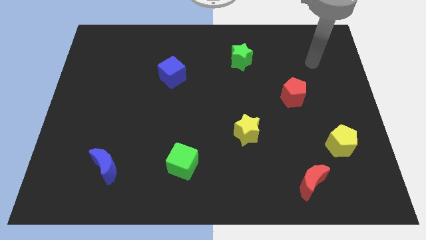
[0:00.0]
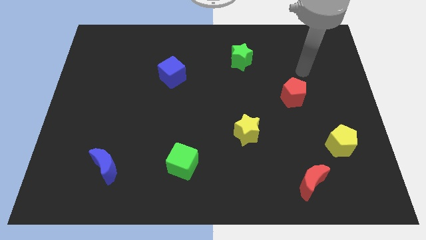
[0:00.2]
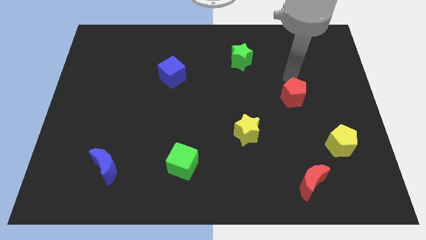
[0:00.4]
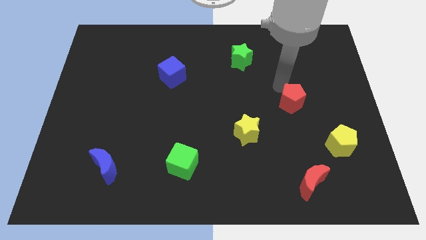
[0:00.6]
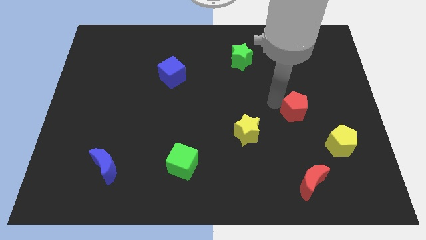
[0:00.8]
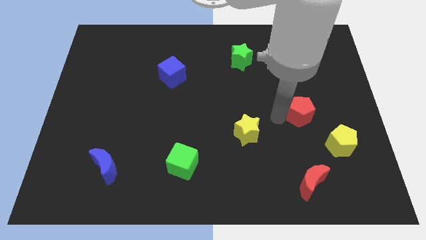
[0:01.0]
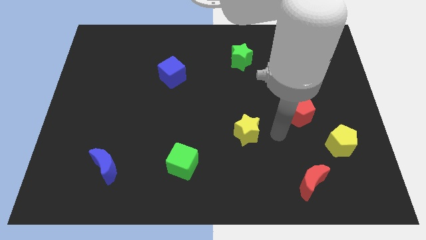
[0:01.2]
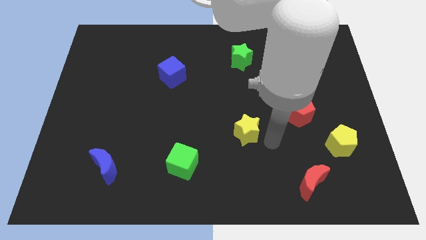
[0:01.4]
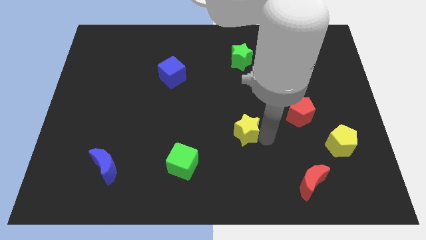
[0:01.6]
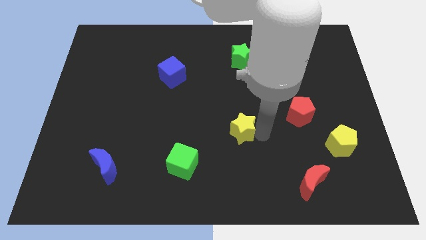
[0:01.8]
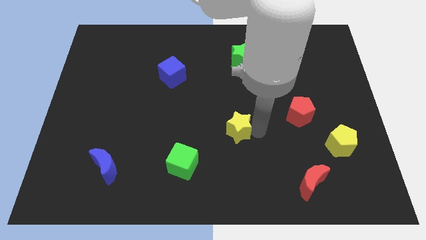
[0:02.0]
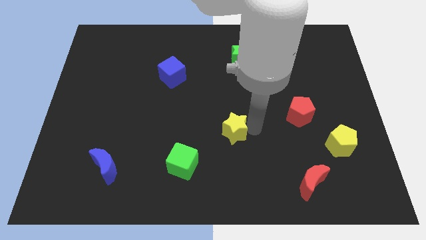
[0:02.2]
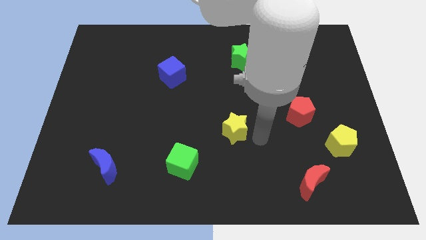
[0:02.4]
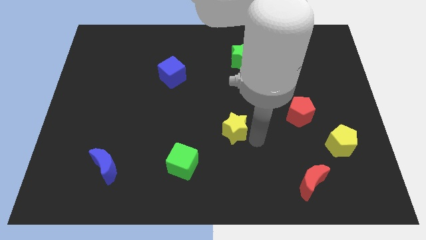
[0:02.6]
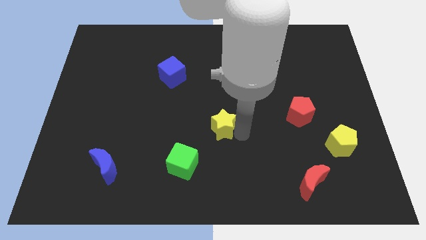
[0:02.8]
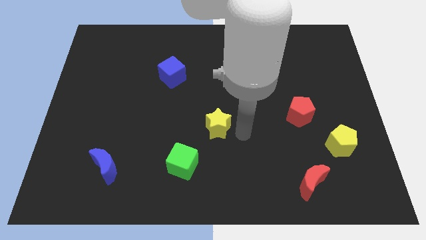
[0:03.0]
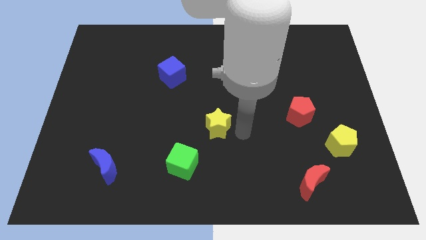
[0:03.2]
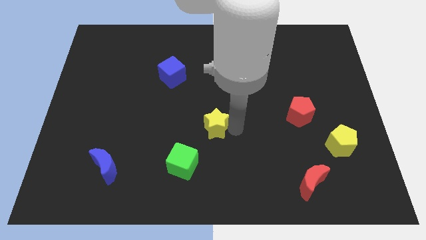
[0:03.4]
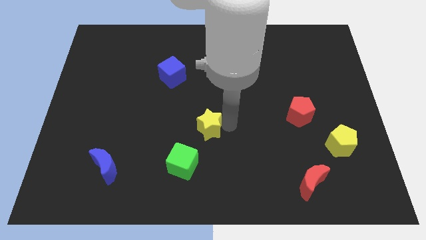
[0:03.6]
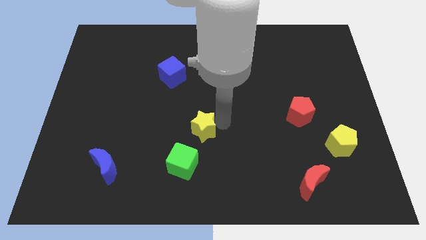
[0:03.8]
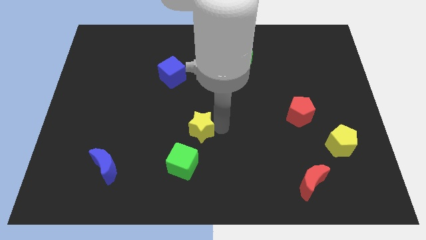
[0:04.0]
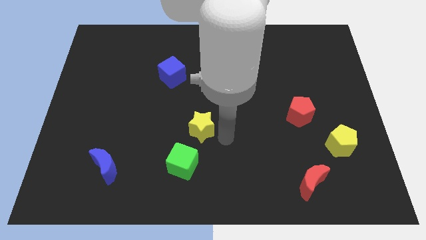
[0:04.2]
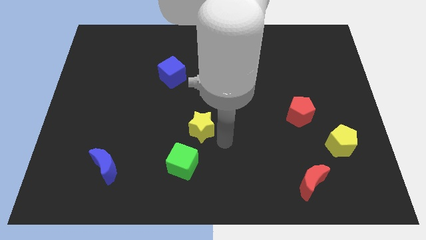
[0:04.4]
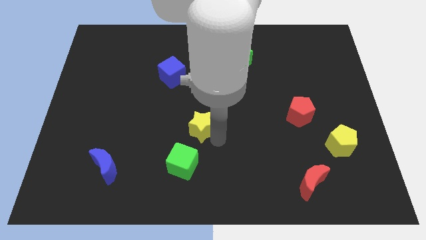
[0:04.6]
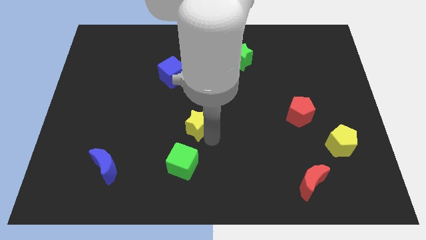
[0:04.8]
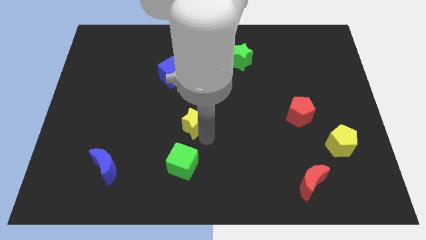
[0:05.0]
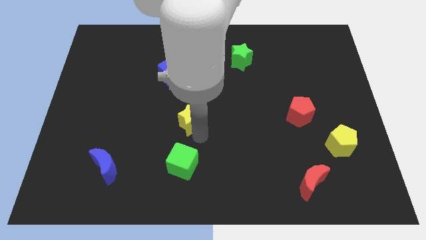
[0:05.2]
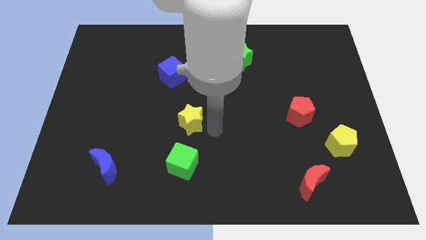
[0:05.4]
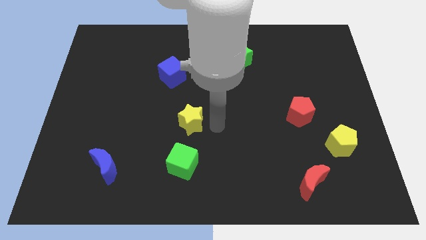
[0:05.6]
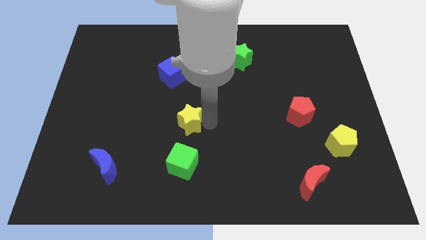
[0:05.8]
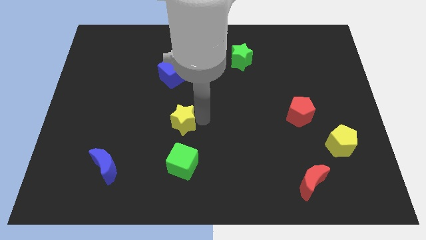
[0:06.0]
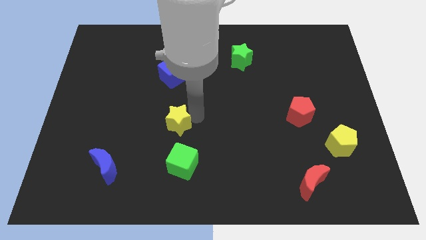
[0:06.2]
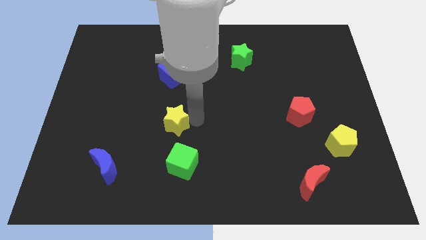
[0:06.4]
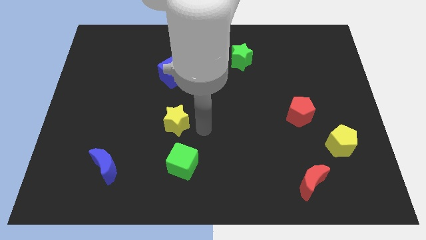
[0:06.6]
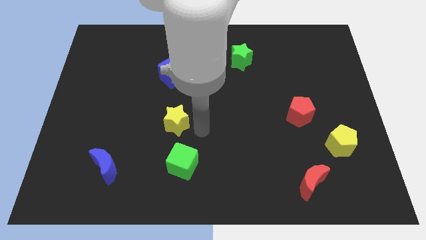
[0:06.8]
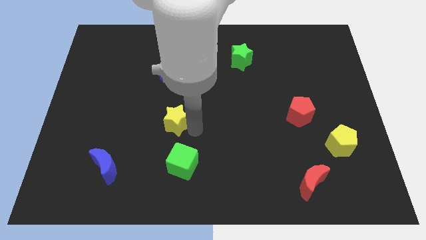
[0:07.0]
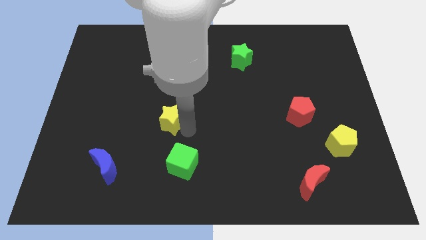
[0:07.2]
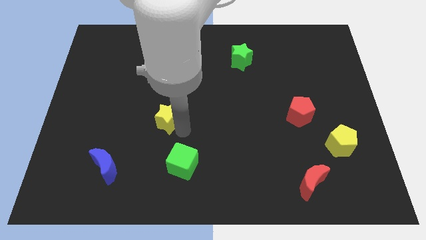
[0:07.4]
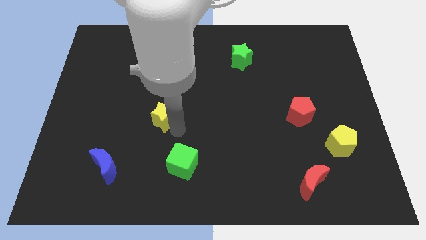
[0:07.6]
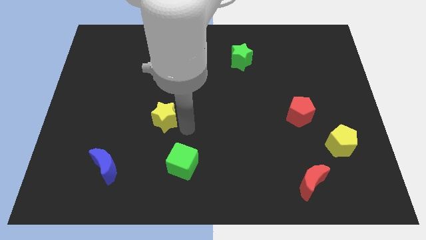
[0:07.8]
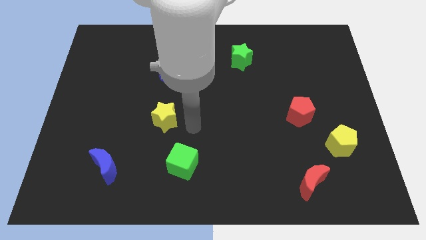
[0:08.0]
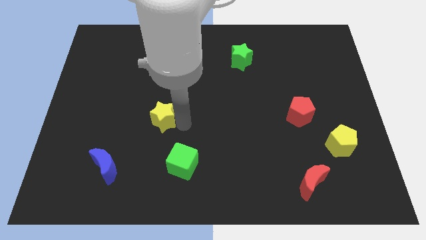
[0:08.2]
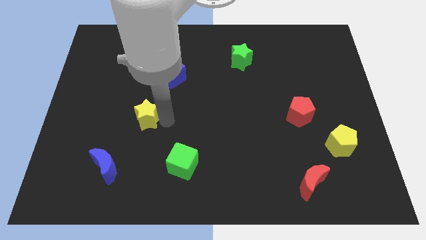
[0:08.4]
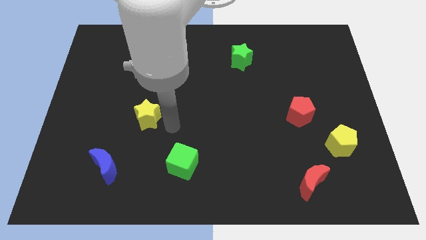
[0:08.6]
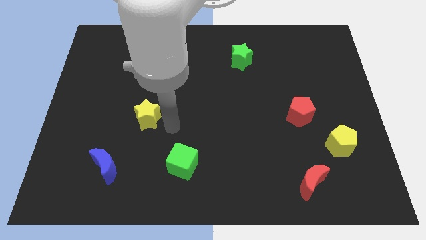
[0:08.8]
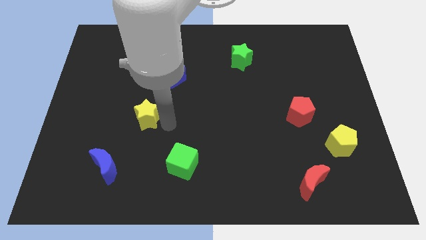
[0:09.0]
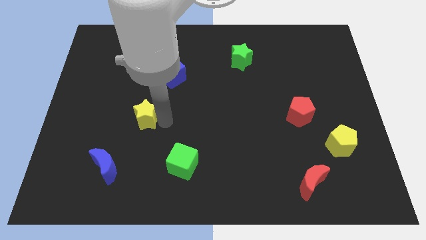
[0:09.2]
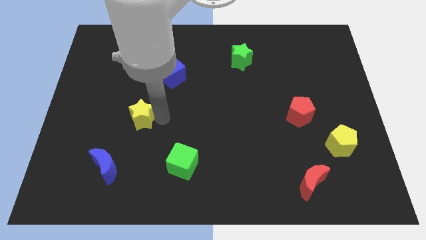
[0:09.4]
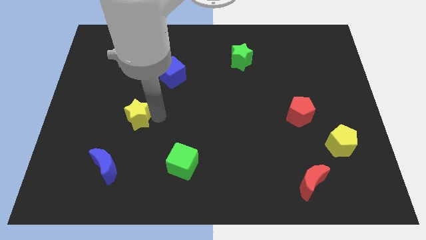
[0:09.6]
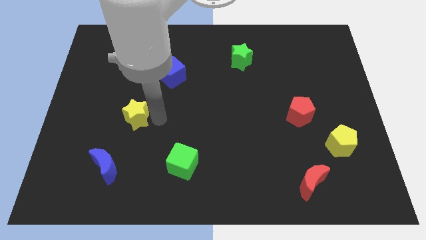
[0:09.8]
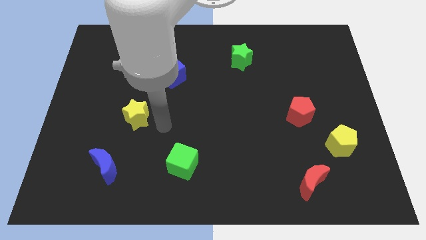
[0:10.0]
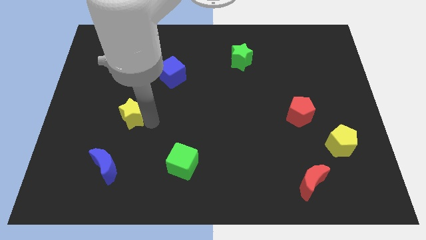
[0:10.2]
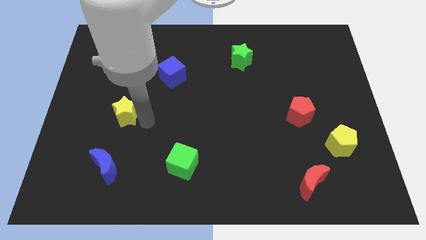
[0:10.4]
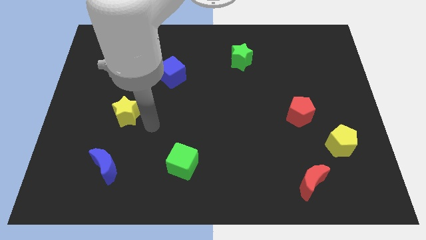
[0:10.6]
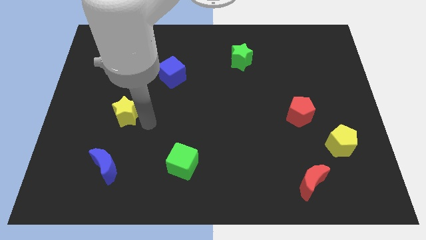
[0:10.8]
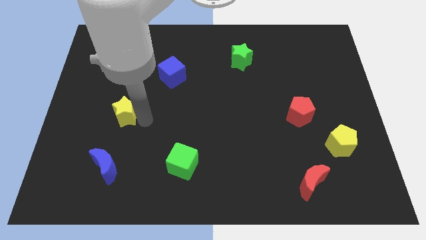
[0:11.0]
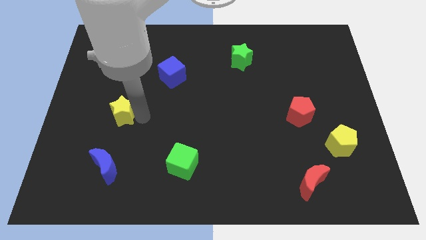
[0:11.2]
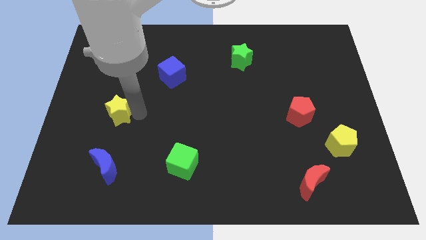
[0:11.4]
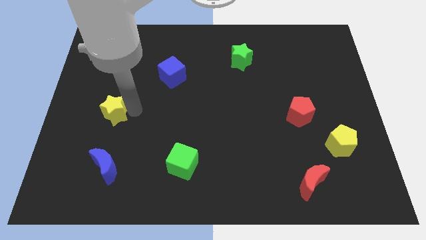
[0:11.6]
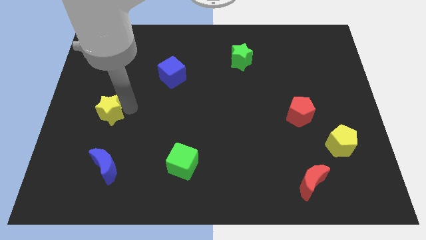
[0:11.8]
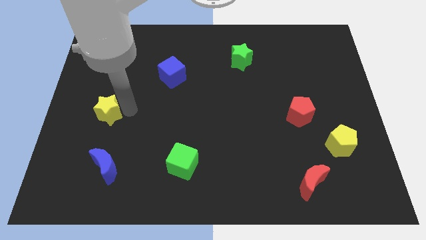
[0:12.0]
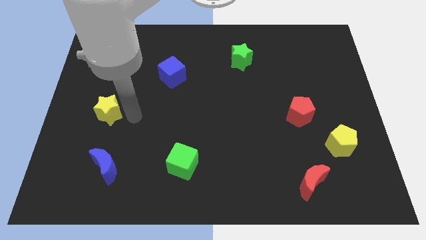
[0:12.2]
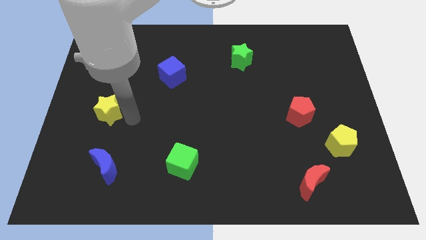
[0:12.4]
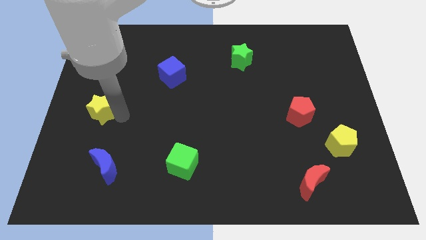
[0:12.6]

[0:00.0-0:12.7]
push the yellow star to the center left
